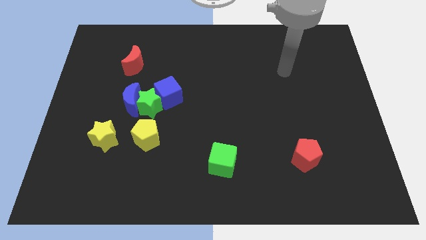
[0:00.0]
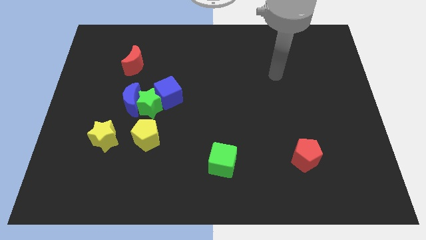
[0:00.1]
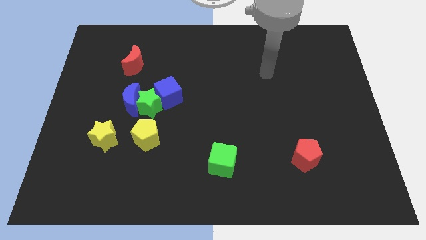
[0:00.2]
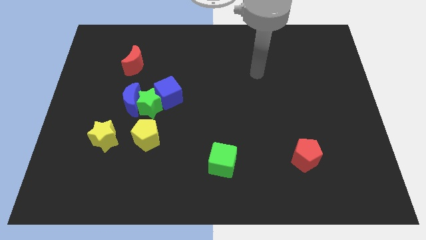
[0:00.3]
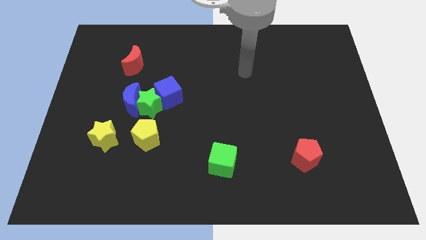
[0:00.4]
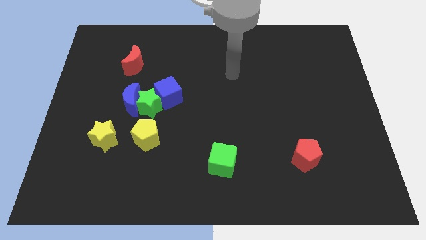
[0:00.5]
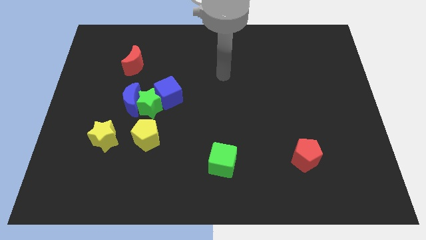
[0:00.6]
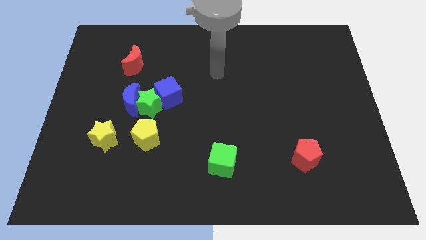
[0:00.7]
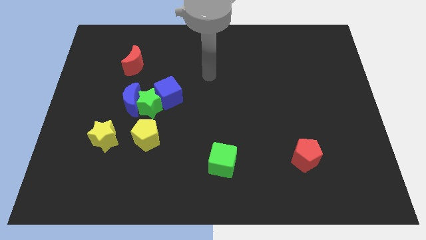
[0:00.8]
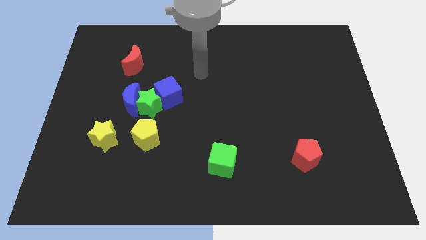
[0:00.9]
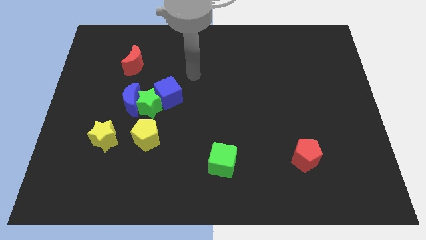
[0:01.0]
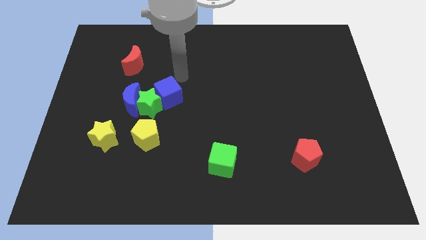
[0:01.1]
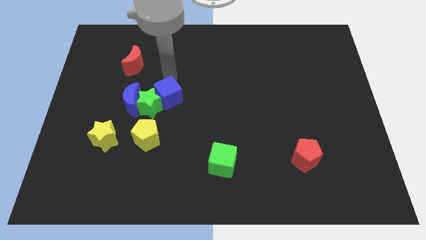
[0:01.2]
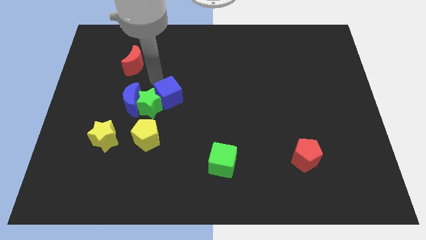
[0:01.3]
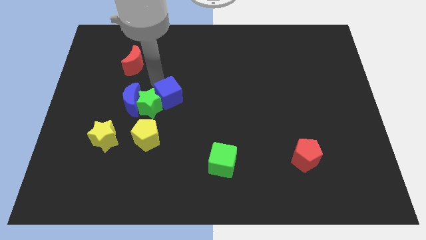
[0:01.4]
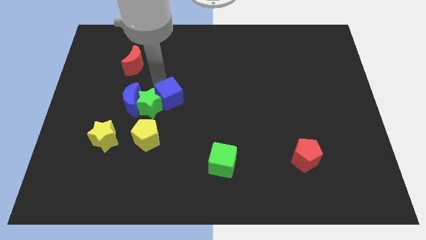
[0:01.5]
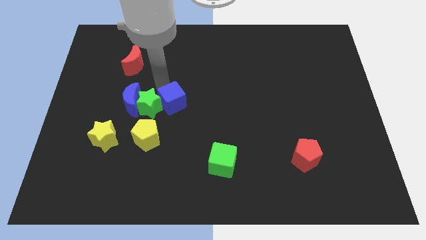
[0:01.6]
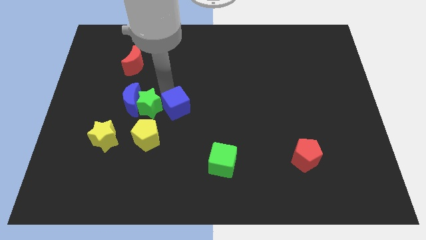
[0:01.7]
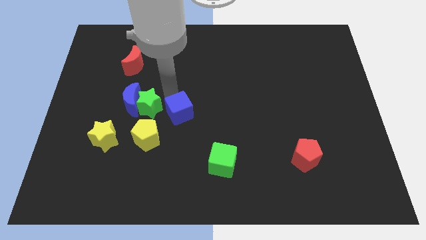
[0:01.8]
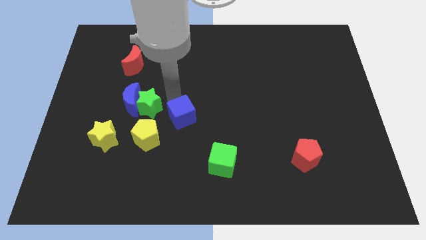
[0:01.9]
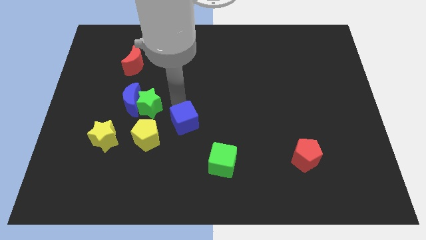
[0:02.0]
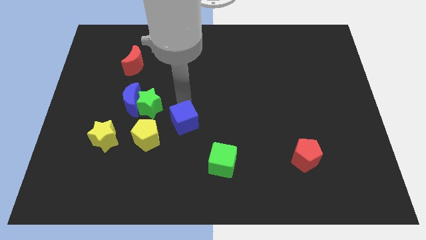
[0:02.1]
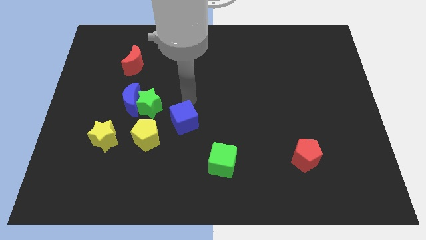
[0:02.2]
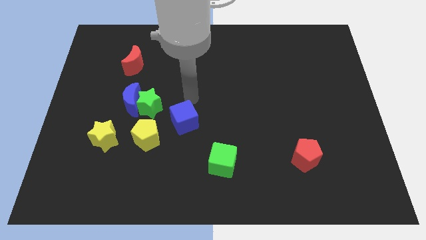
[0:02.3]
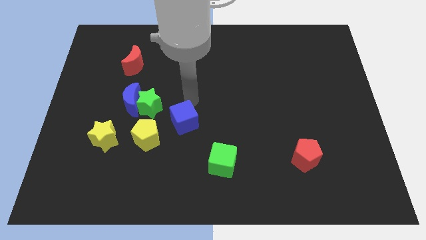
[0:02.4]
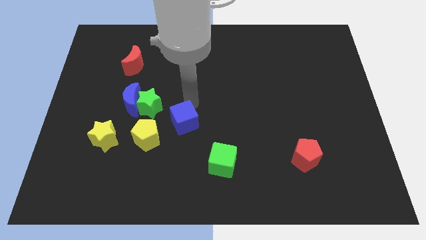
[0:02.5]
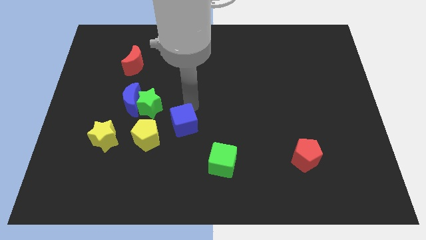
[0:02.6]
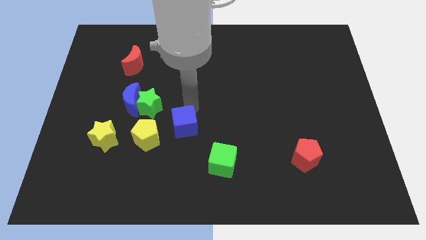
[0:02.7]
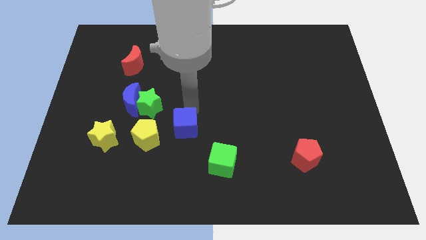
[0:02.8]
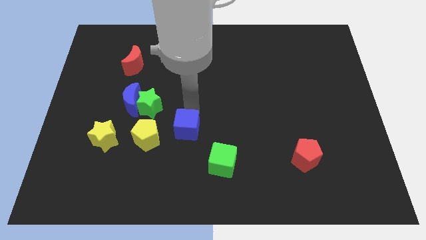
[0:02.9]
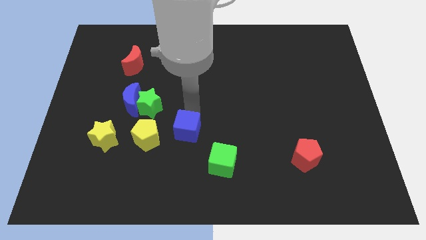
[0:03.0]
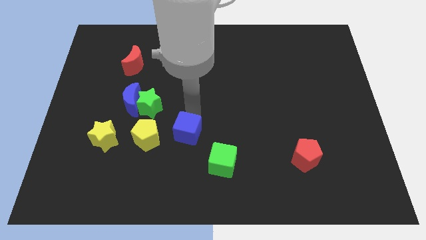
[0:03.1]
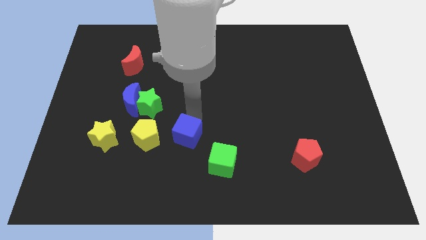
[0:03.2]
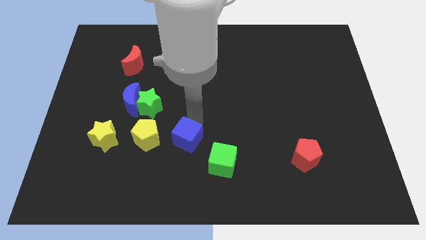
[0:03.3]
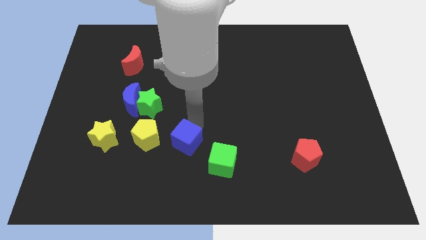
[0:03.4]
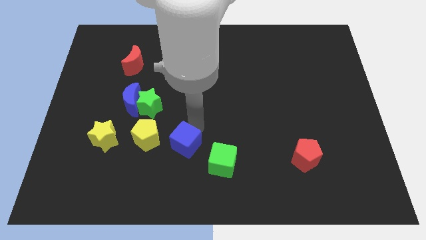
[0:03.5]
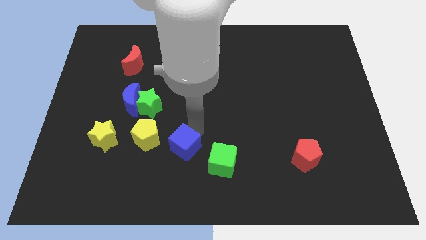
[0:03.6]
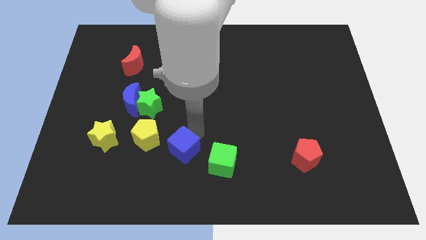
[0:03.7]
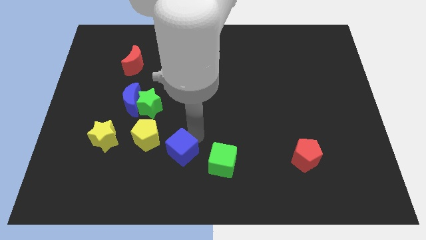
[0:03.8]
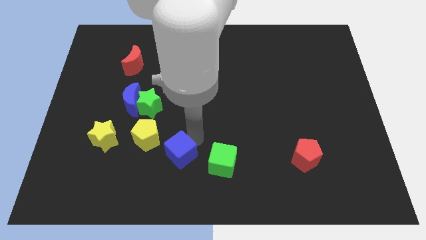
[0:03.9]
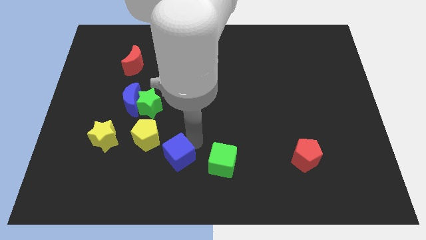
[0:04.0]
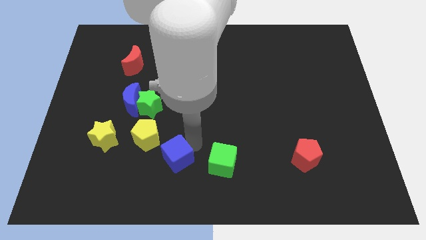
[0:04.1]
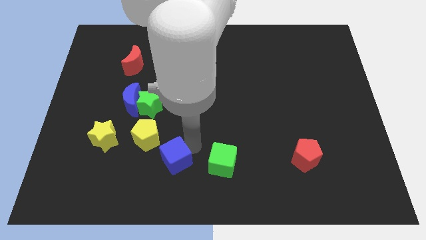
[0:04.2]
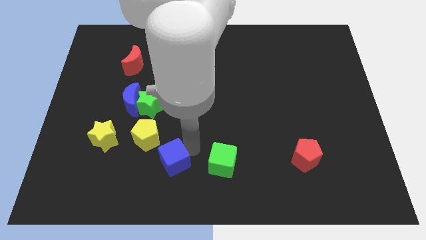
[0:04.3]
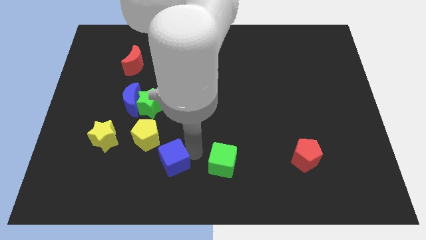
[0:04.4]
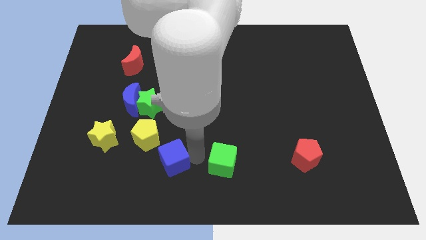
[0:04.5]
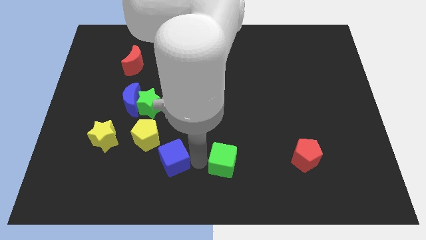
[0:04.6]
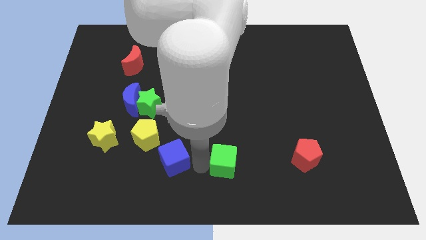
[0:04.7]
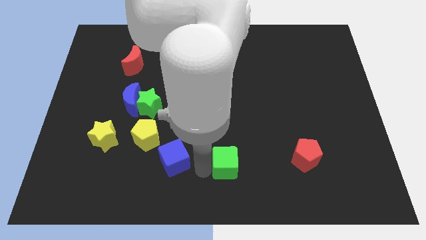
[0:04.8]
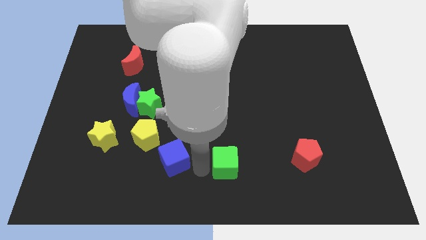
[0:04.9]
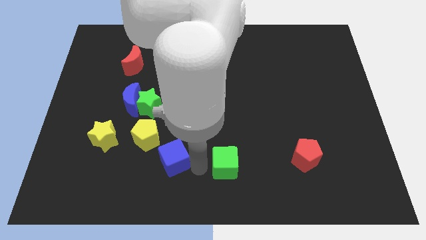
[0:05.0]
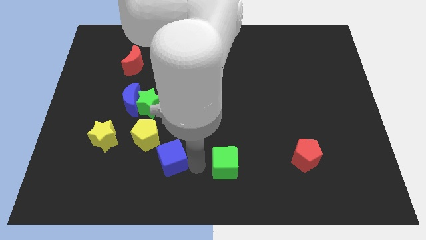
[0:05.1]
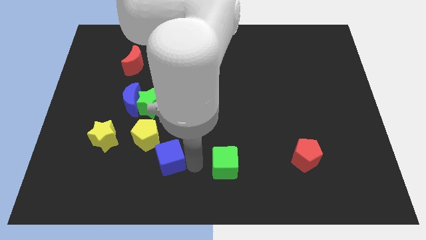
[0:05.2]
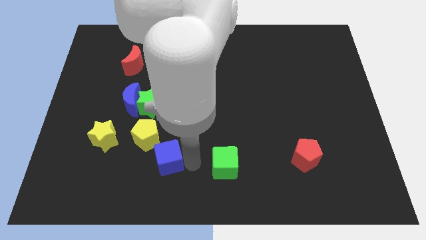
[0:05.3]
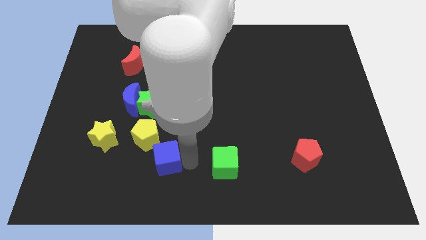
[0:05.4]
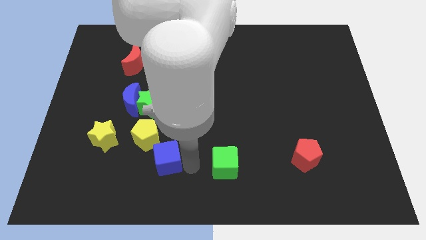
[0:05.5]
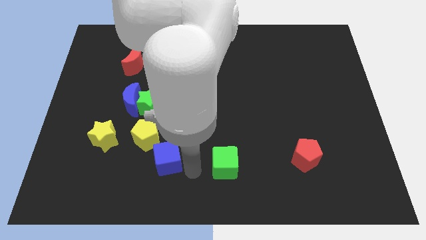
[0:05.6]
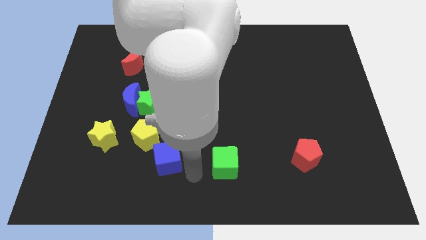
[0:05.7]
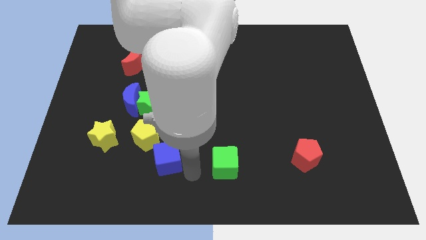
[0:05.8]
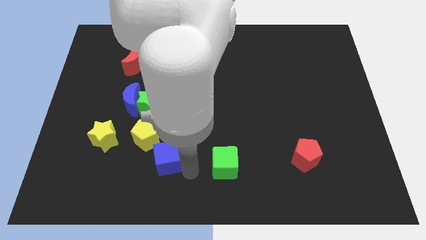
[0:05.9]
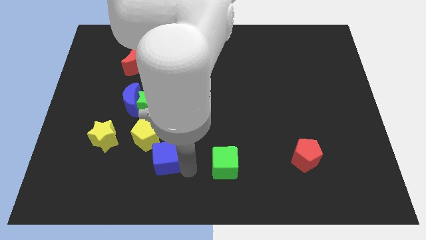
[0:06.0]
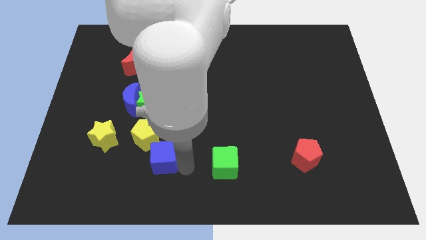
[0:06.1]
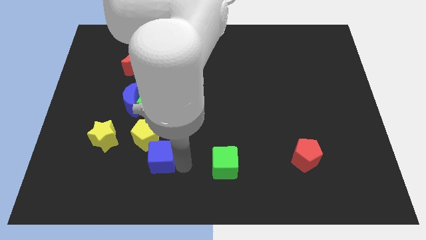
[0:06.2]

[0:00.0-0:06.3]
slide the blue cube below the green star

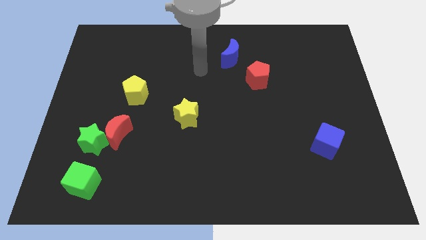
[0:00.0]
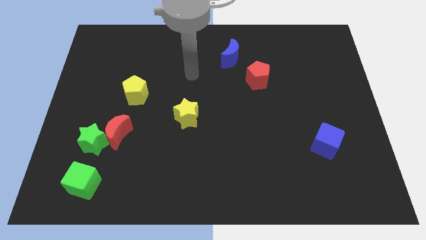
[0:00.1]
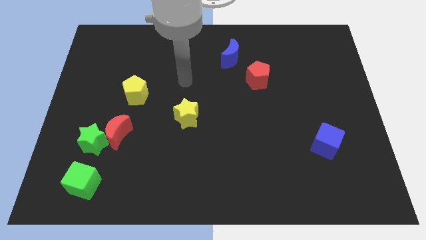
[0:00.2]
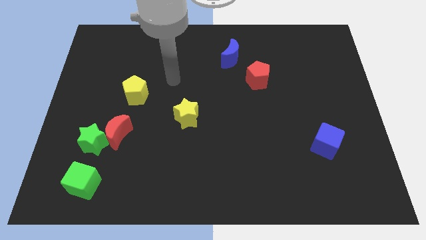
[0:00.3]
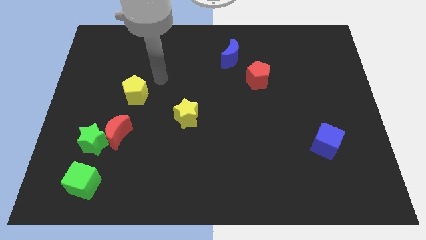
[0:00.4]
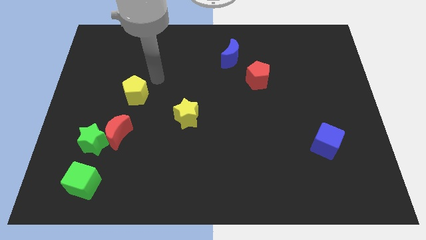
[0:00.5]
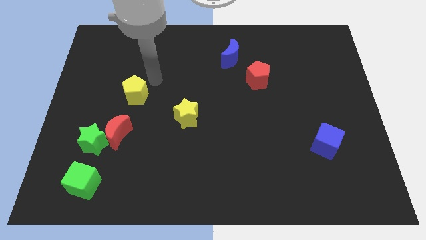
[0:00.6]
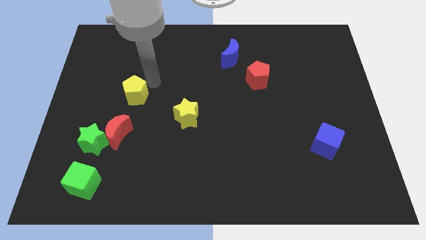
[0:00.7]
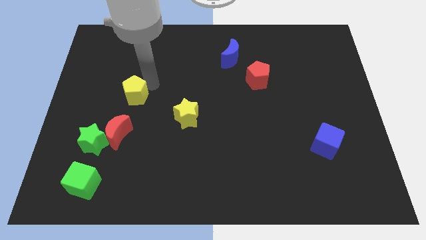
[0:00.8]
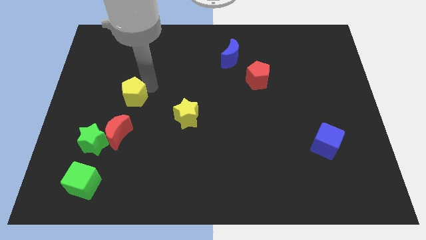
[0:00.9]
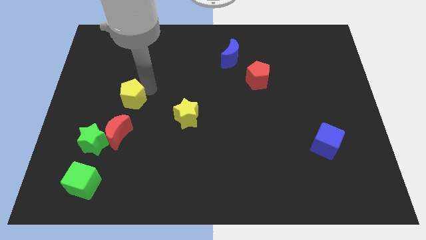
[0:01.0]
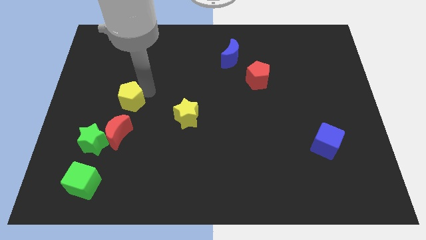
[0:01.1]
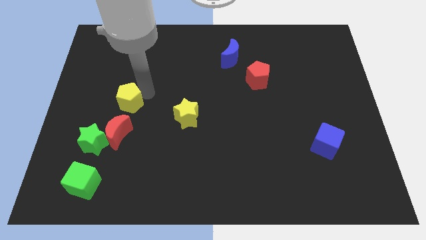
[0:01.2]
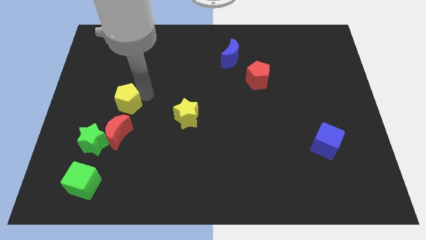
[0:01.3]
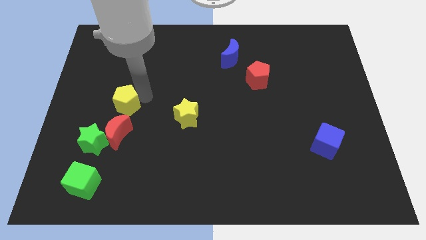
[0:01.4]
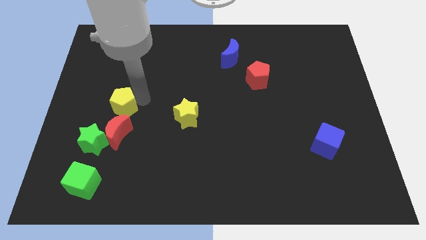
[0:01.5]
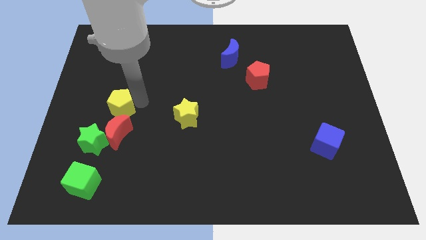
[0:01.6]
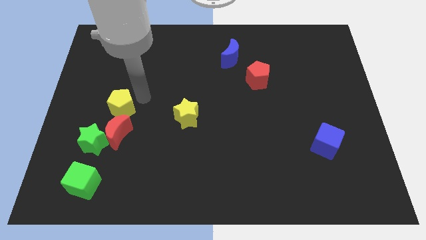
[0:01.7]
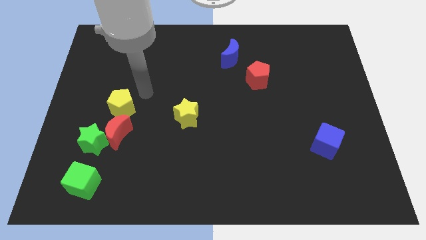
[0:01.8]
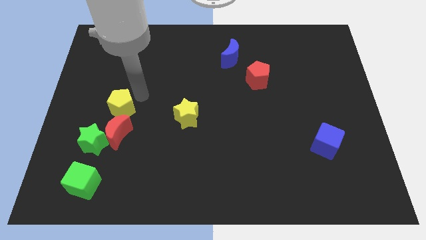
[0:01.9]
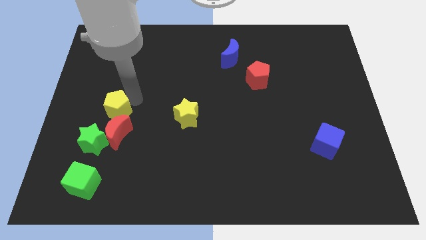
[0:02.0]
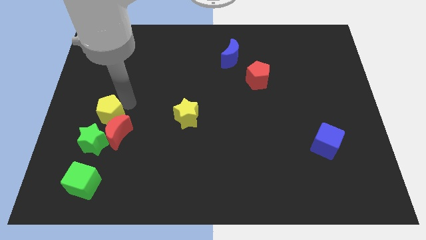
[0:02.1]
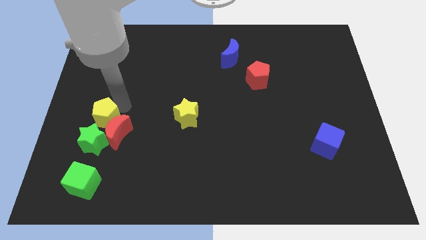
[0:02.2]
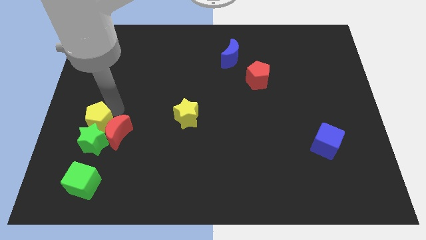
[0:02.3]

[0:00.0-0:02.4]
put the yellow pentagon to the top side of the green cube
